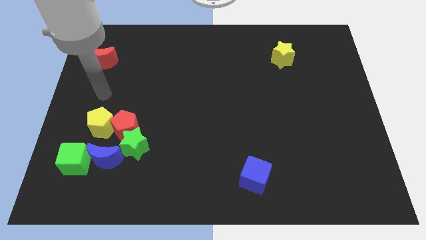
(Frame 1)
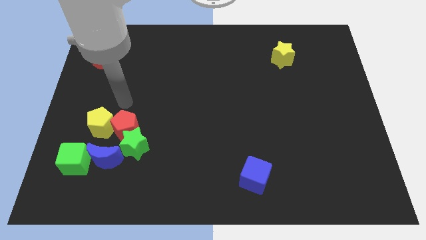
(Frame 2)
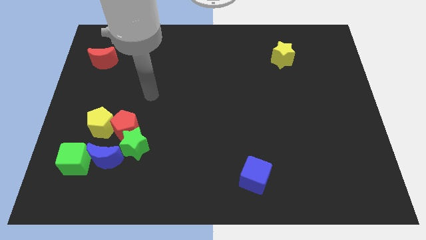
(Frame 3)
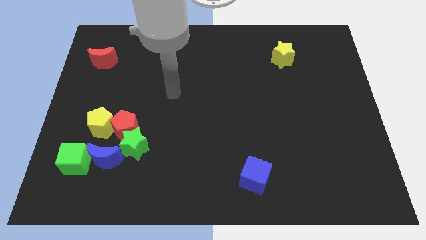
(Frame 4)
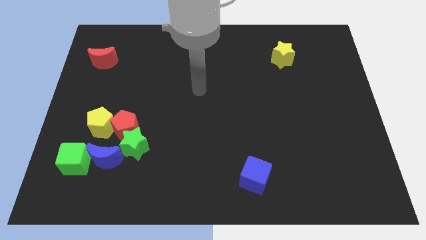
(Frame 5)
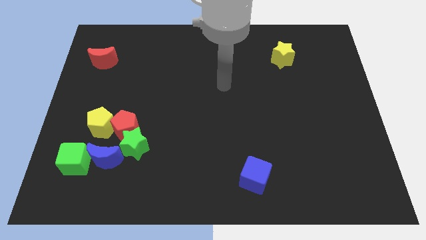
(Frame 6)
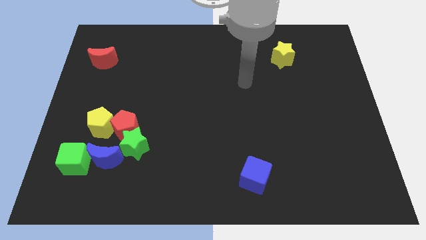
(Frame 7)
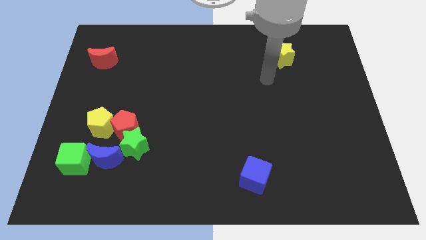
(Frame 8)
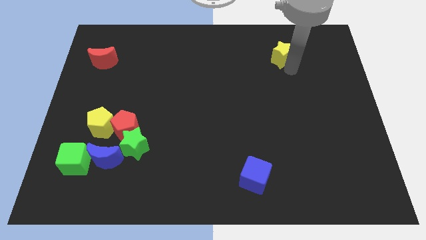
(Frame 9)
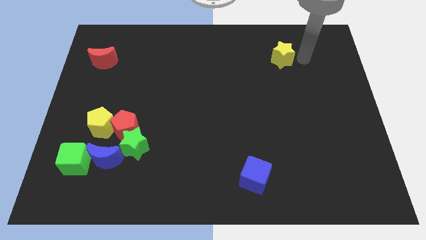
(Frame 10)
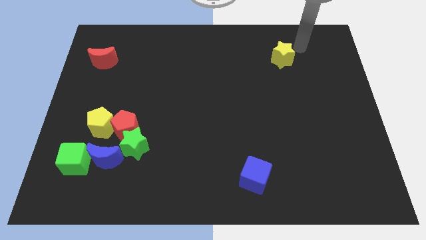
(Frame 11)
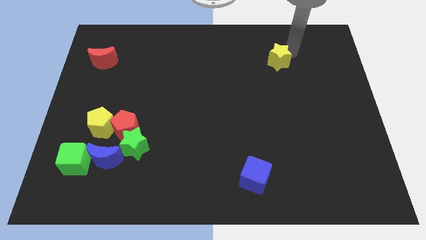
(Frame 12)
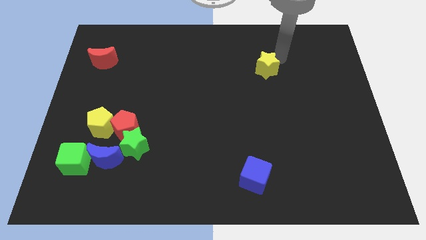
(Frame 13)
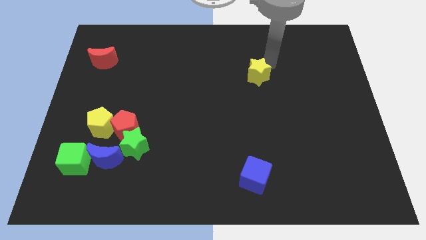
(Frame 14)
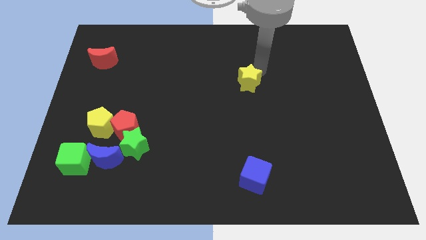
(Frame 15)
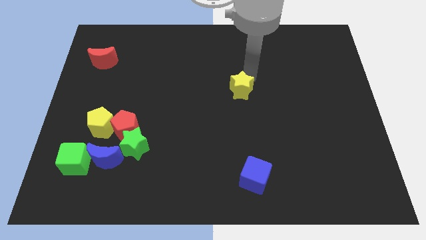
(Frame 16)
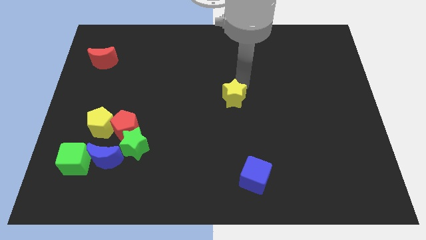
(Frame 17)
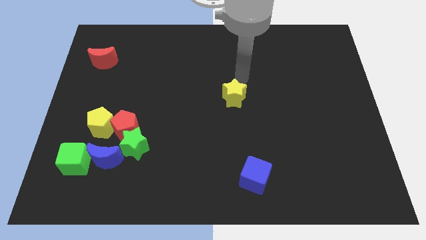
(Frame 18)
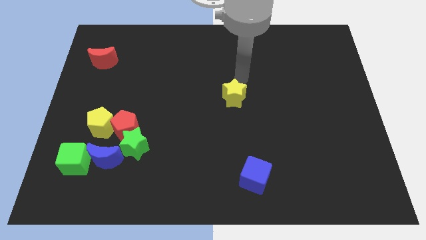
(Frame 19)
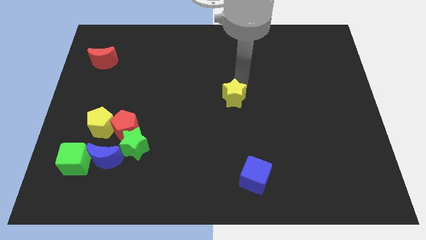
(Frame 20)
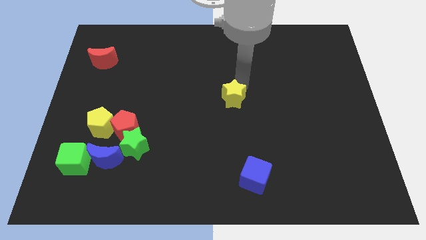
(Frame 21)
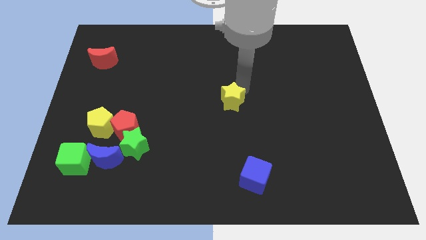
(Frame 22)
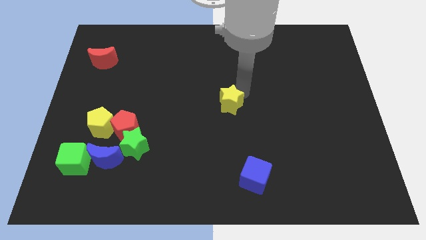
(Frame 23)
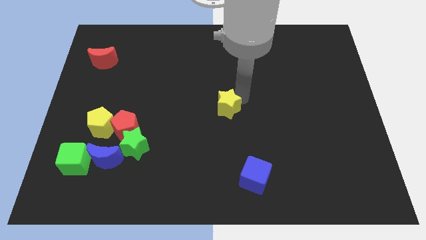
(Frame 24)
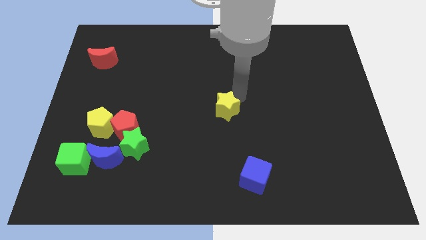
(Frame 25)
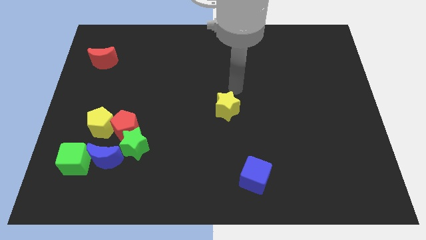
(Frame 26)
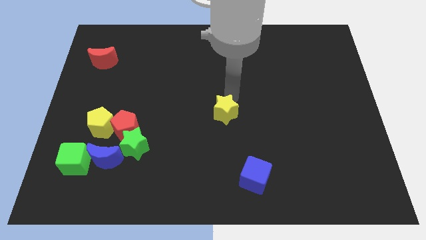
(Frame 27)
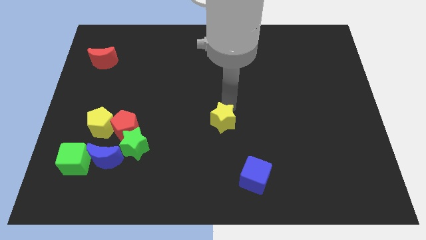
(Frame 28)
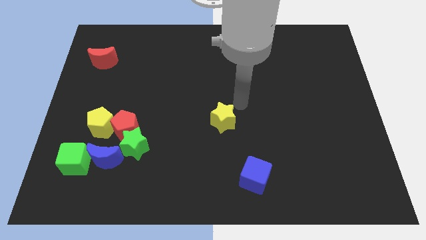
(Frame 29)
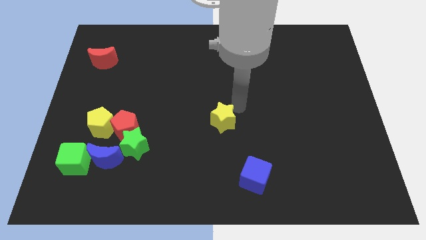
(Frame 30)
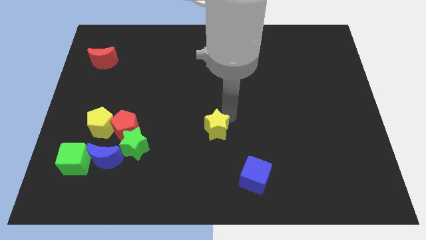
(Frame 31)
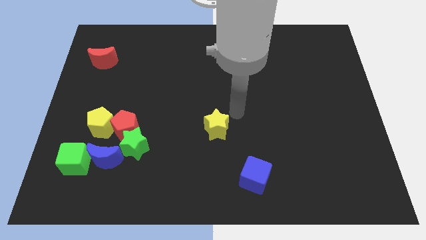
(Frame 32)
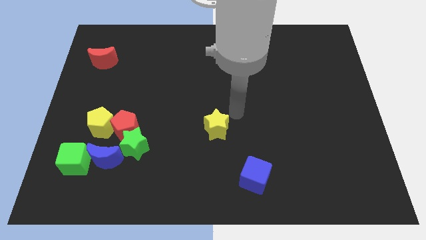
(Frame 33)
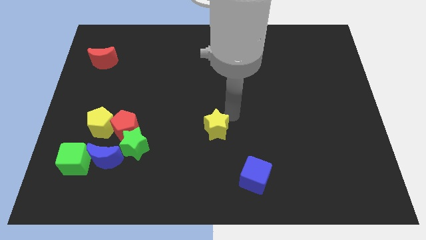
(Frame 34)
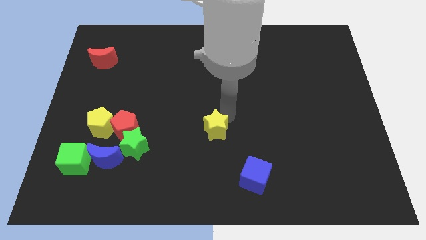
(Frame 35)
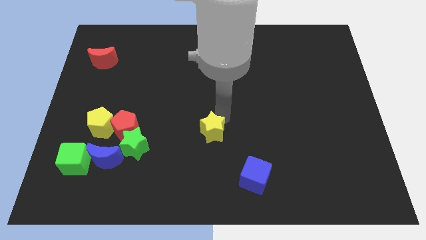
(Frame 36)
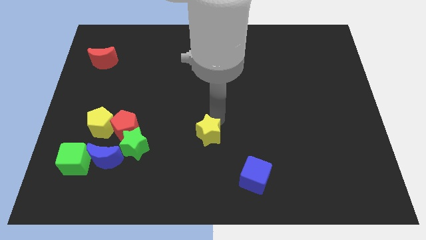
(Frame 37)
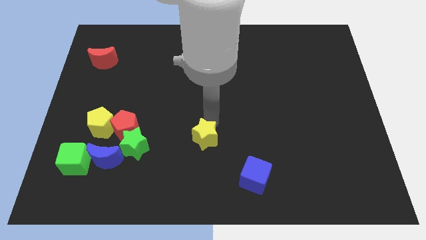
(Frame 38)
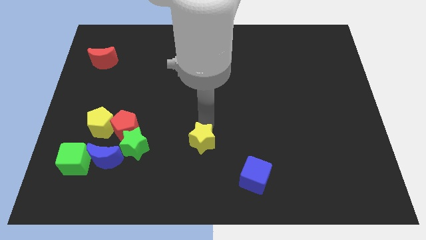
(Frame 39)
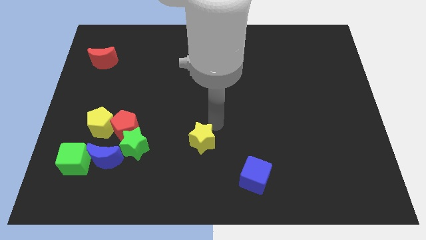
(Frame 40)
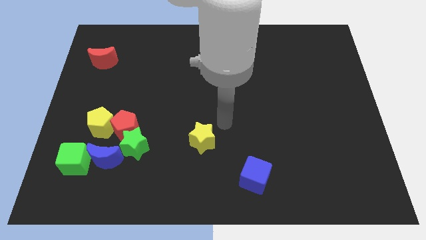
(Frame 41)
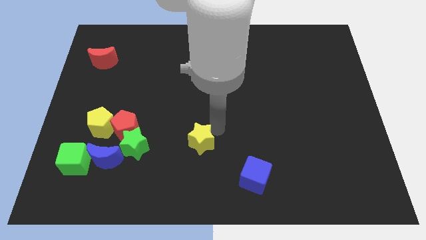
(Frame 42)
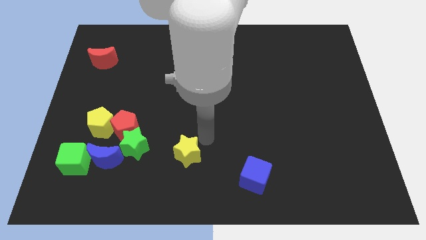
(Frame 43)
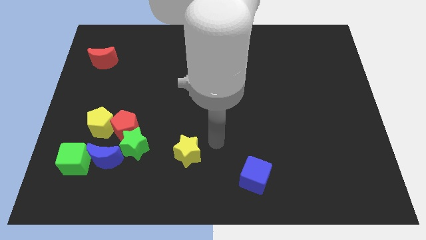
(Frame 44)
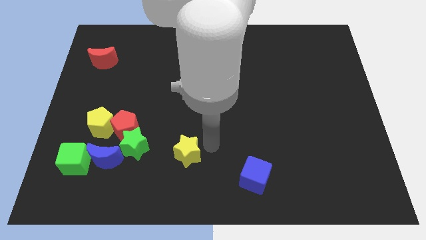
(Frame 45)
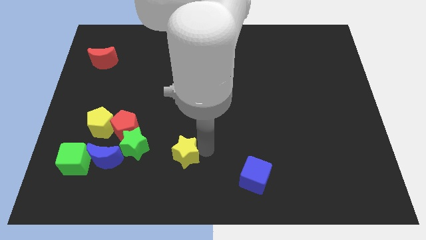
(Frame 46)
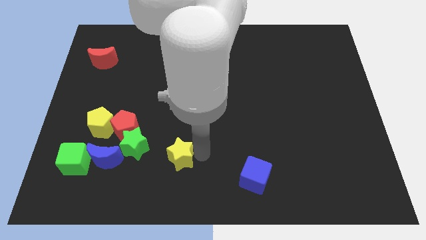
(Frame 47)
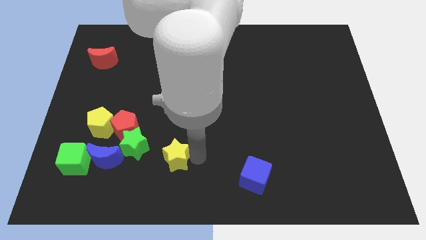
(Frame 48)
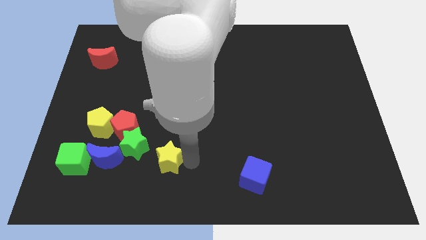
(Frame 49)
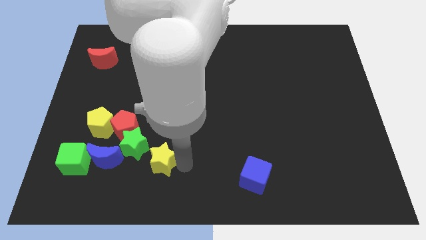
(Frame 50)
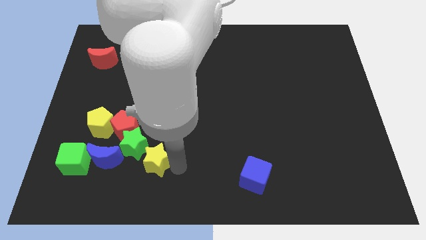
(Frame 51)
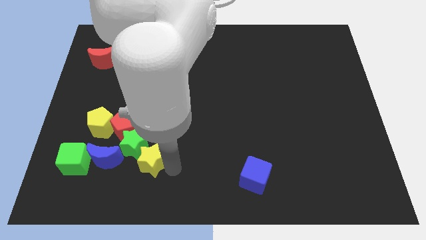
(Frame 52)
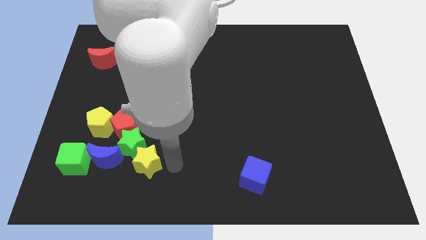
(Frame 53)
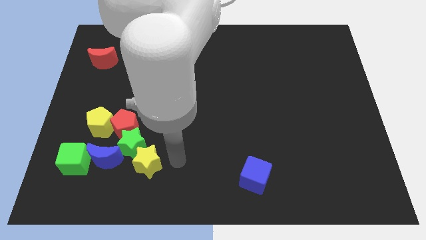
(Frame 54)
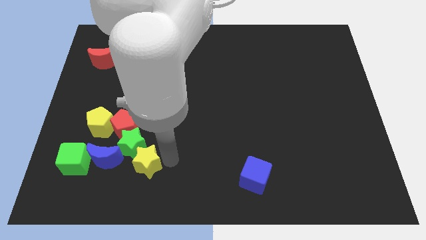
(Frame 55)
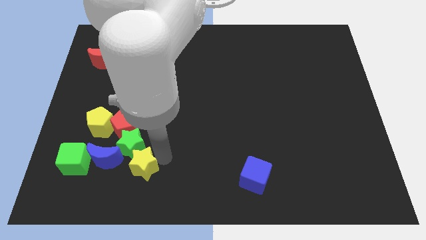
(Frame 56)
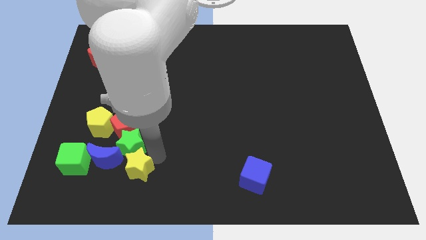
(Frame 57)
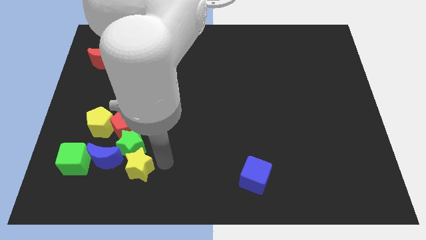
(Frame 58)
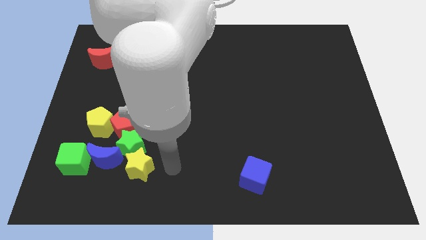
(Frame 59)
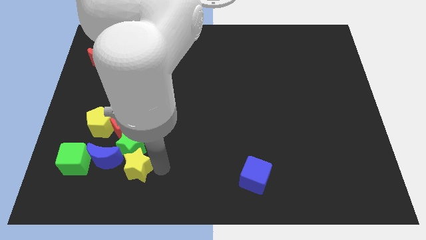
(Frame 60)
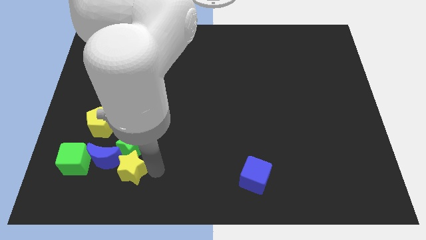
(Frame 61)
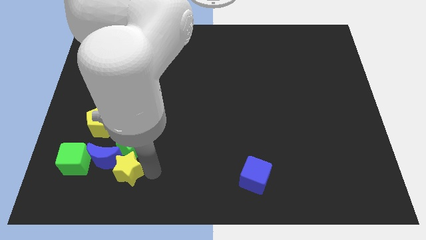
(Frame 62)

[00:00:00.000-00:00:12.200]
push the yellow star to the blue moon

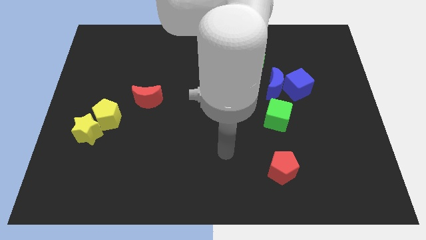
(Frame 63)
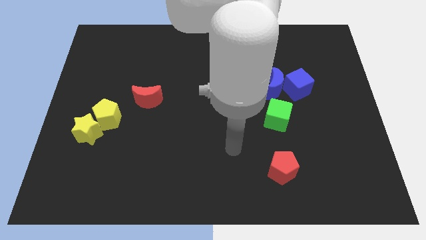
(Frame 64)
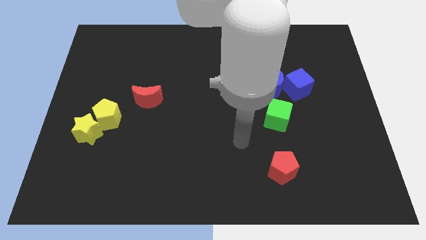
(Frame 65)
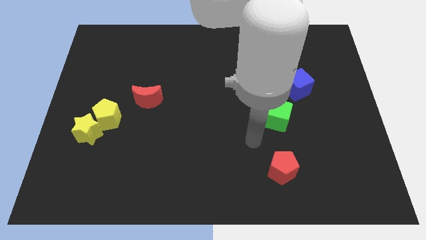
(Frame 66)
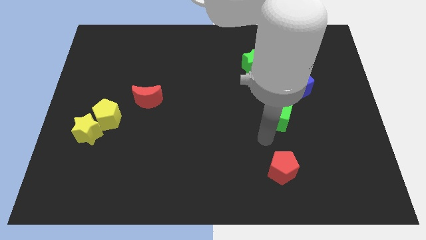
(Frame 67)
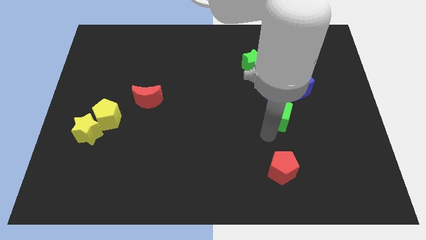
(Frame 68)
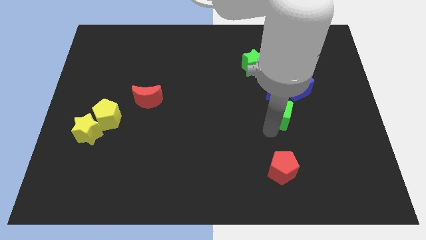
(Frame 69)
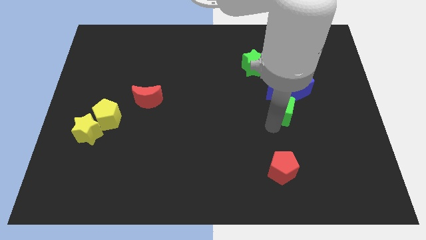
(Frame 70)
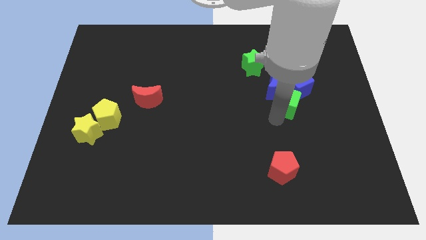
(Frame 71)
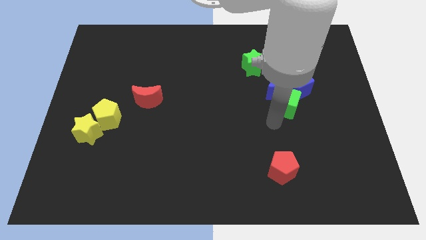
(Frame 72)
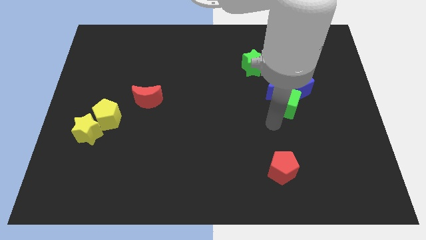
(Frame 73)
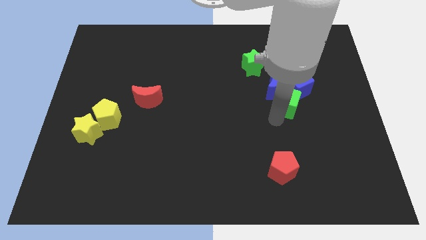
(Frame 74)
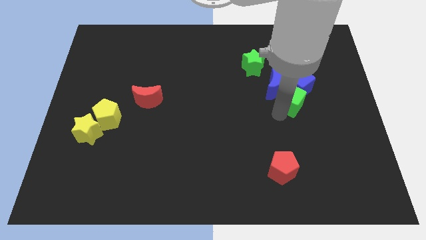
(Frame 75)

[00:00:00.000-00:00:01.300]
slide the green cube towards the blue cube
